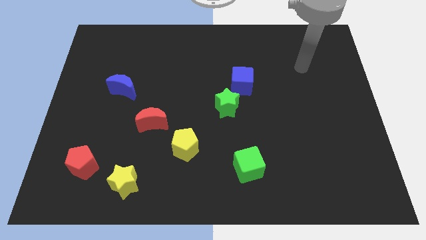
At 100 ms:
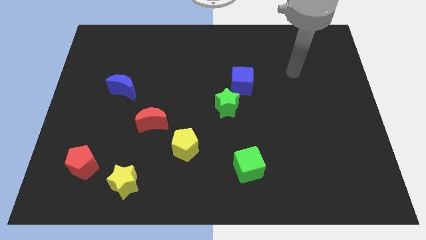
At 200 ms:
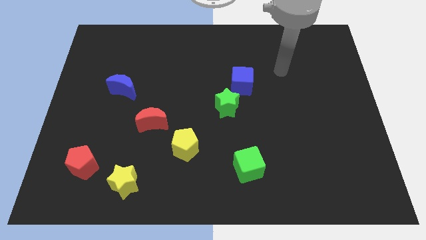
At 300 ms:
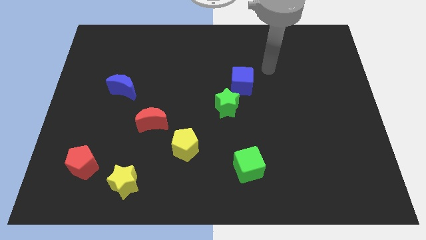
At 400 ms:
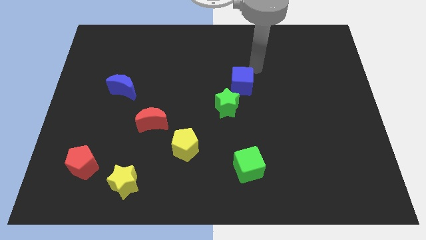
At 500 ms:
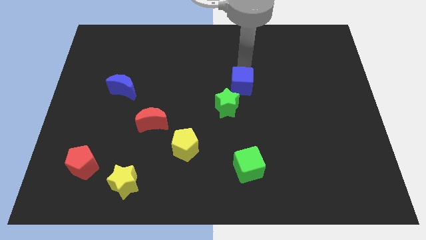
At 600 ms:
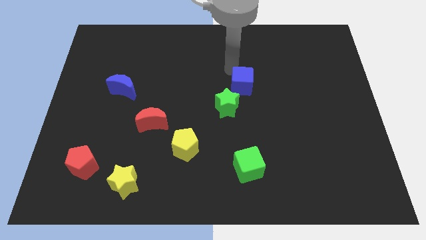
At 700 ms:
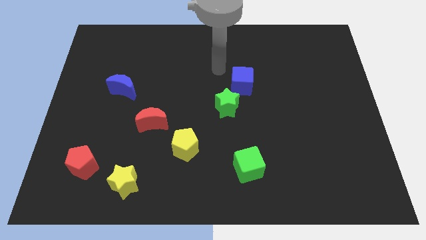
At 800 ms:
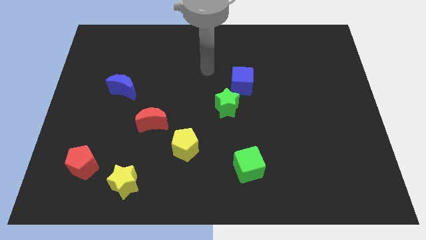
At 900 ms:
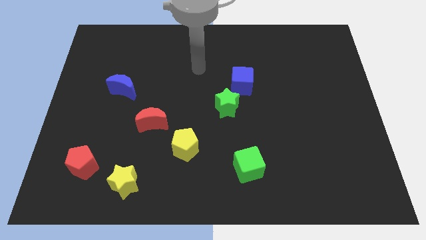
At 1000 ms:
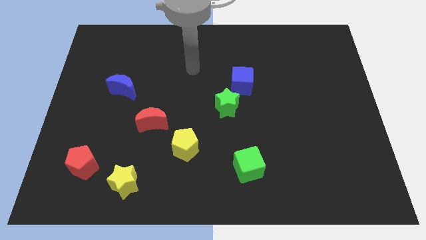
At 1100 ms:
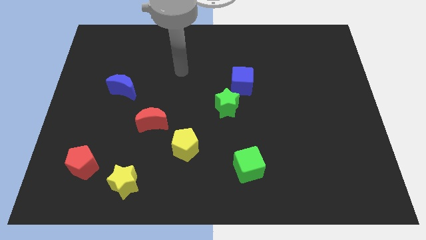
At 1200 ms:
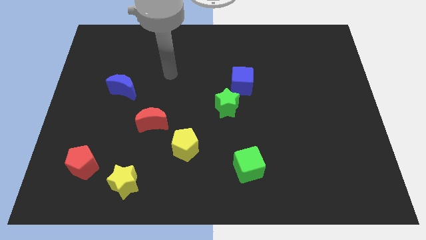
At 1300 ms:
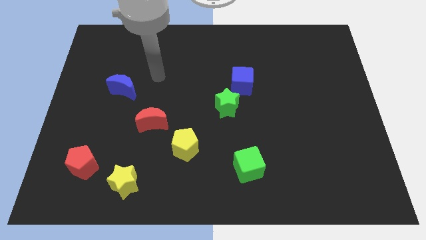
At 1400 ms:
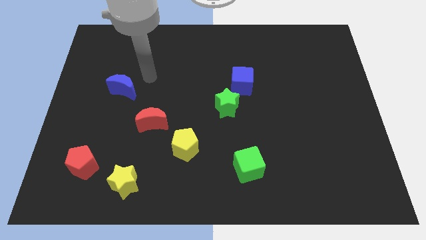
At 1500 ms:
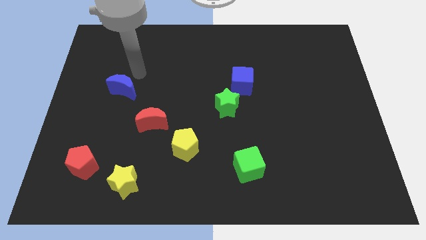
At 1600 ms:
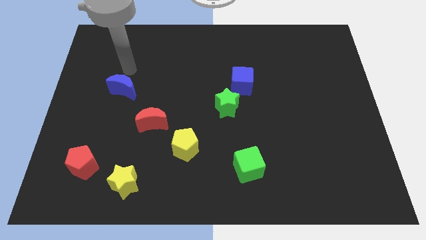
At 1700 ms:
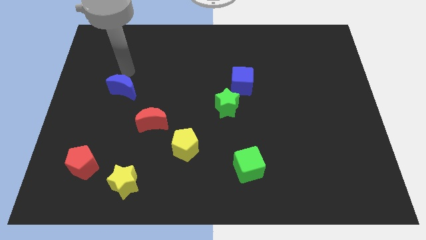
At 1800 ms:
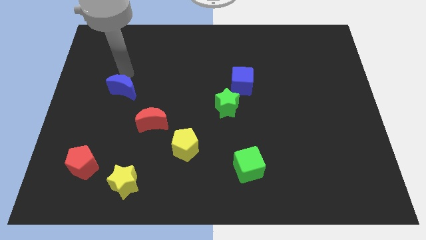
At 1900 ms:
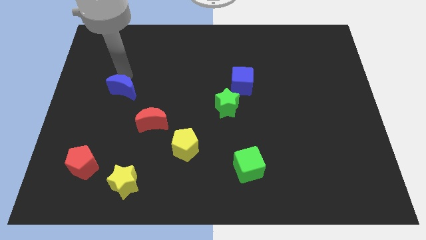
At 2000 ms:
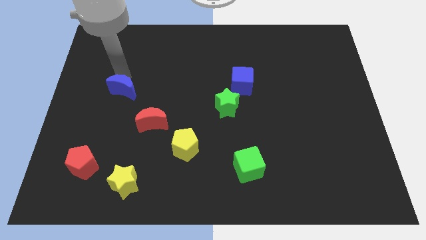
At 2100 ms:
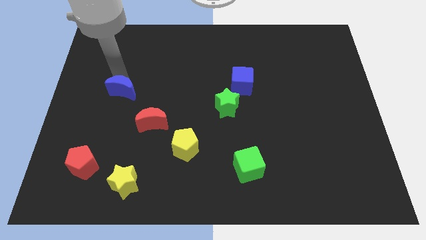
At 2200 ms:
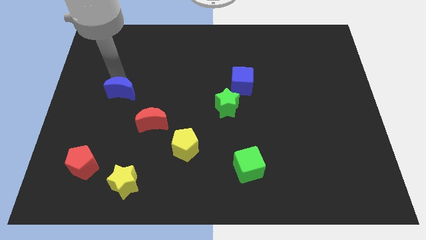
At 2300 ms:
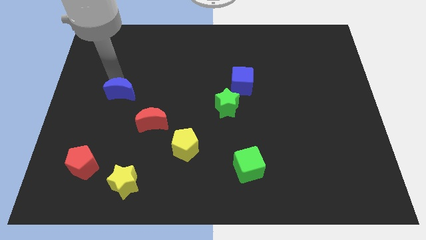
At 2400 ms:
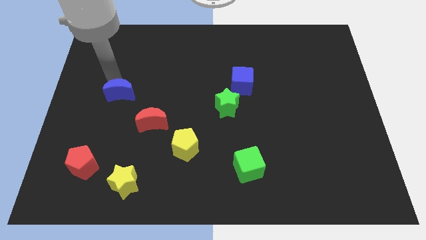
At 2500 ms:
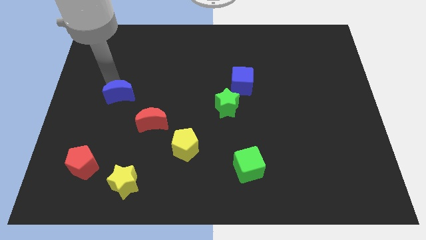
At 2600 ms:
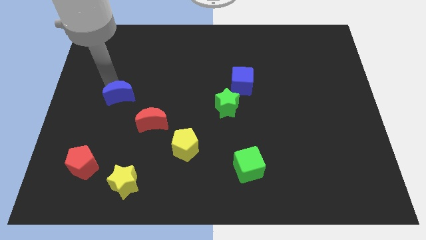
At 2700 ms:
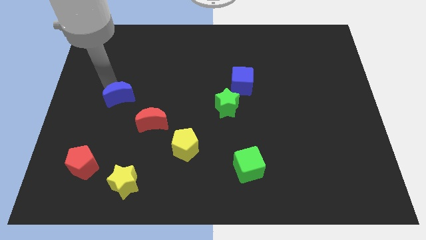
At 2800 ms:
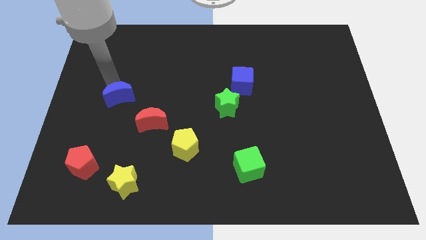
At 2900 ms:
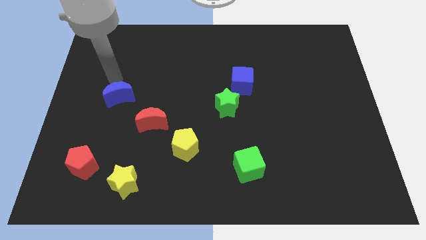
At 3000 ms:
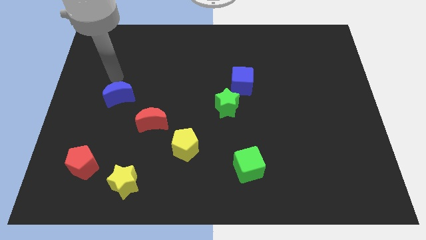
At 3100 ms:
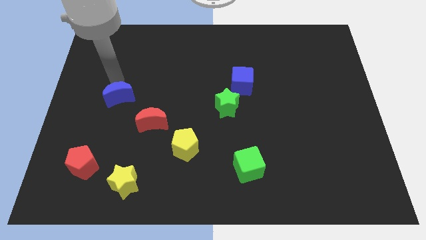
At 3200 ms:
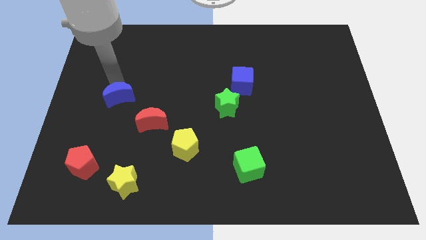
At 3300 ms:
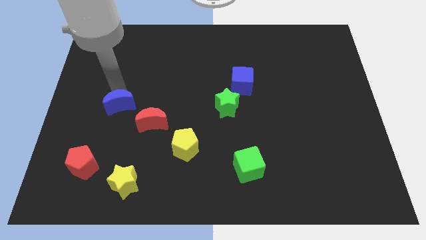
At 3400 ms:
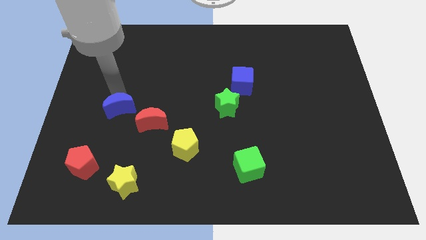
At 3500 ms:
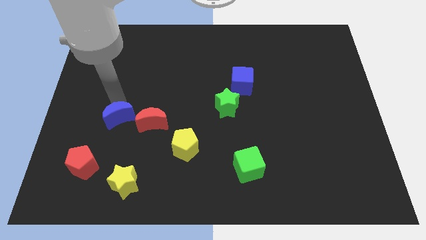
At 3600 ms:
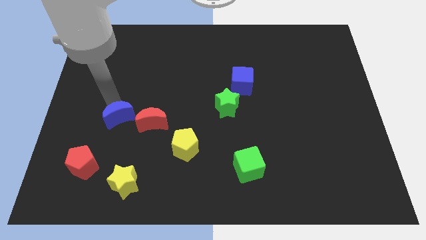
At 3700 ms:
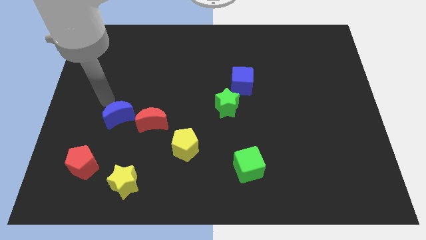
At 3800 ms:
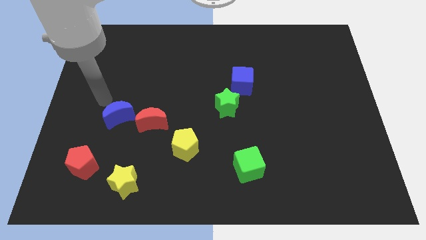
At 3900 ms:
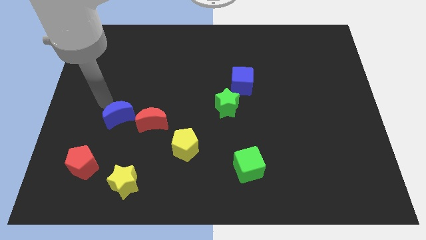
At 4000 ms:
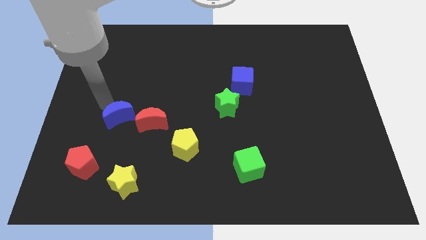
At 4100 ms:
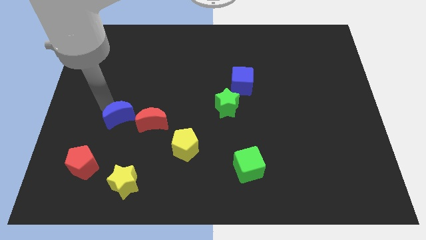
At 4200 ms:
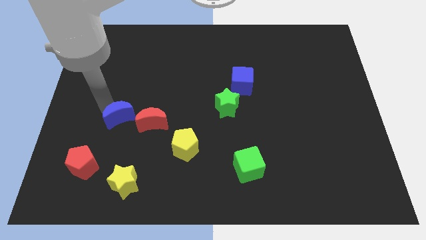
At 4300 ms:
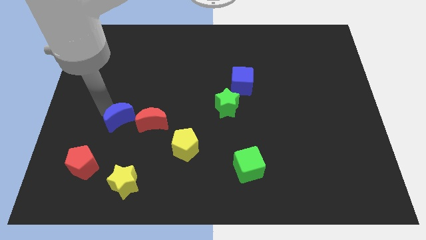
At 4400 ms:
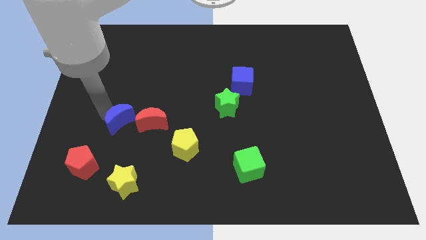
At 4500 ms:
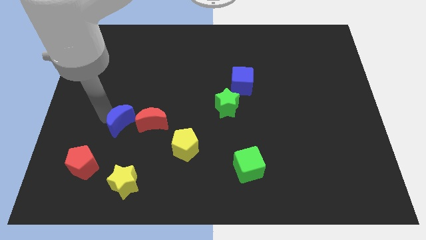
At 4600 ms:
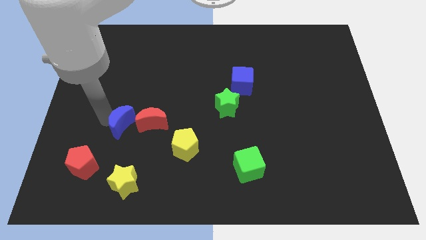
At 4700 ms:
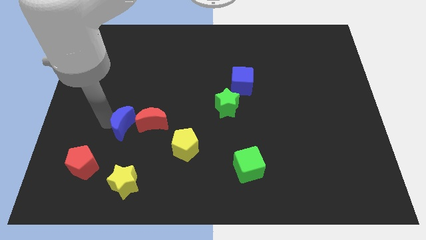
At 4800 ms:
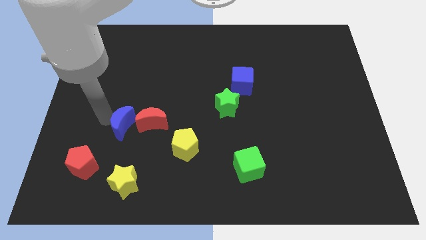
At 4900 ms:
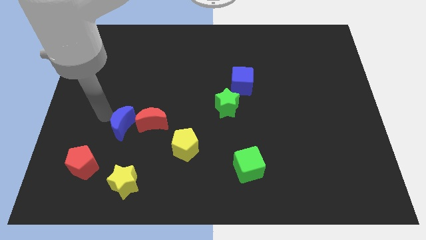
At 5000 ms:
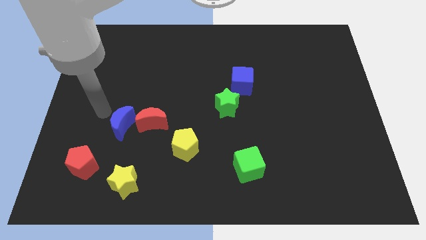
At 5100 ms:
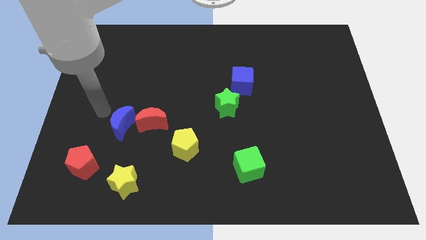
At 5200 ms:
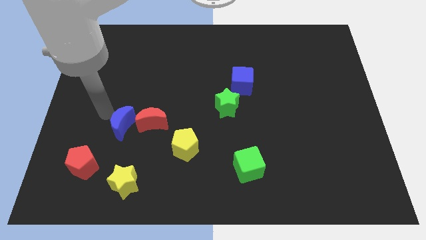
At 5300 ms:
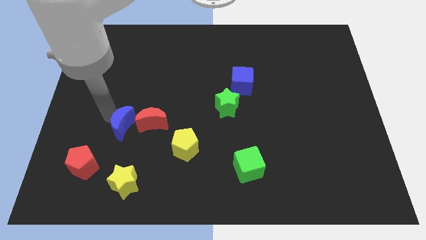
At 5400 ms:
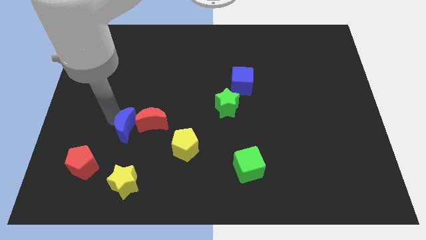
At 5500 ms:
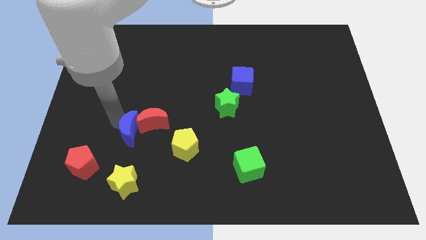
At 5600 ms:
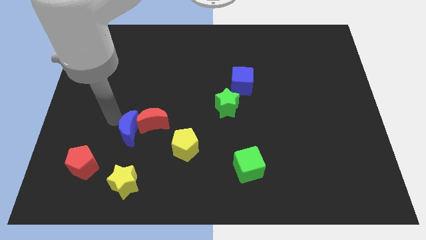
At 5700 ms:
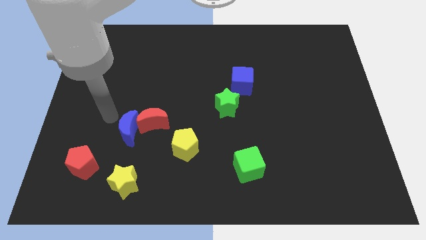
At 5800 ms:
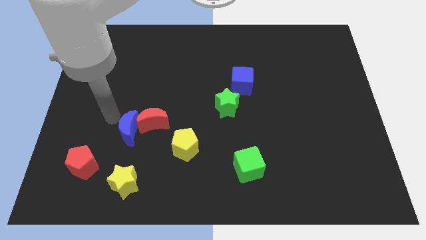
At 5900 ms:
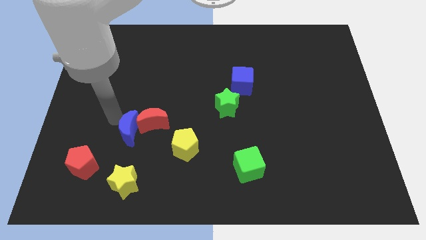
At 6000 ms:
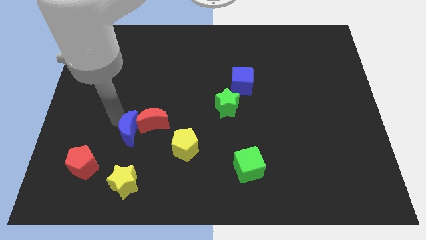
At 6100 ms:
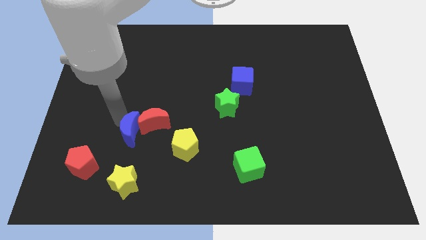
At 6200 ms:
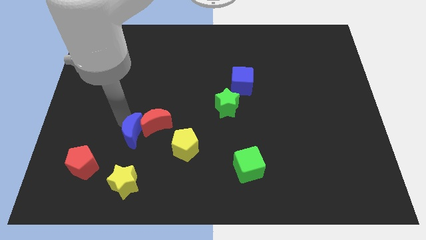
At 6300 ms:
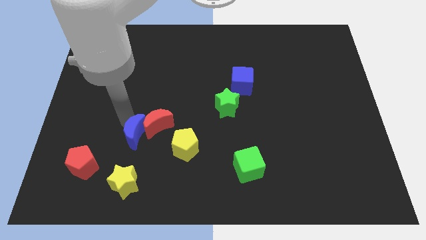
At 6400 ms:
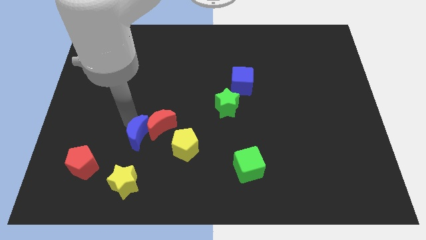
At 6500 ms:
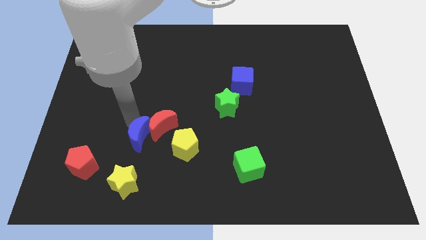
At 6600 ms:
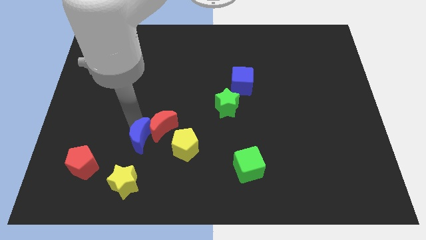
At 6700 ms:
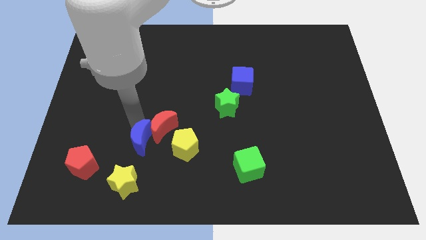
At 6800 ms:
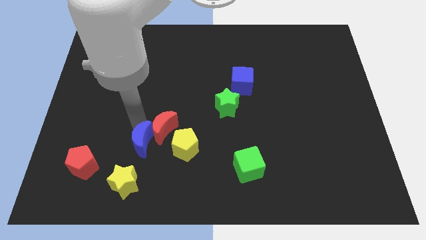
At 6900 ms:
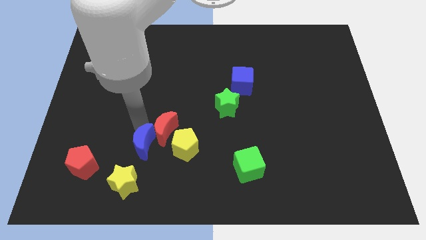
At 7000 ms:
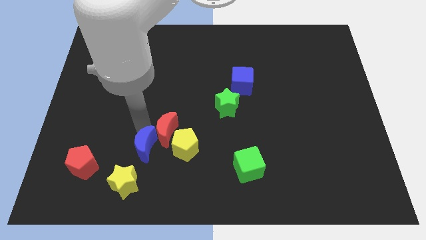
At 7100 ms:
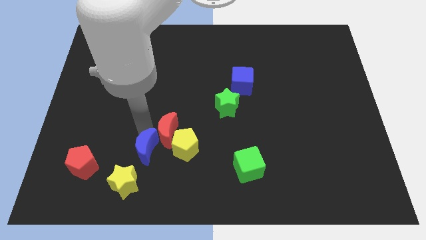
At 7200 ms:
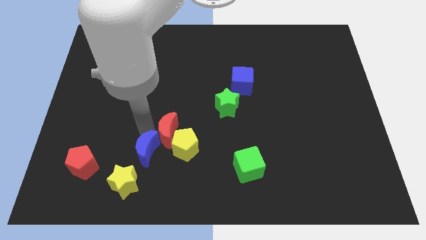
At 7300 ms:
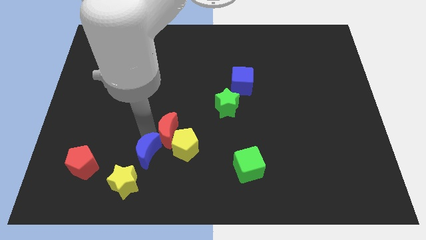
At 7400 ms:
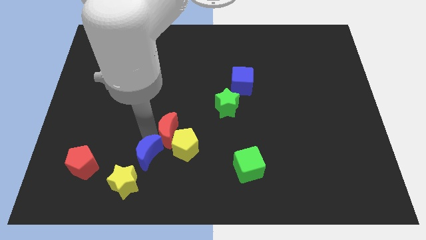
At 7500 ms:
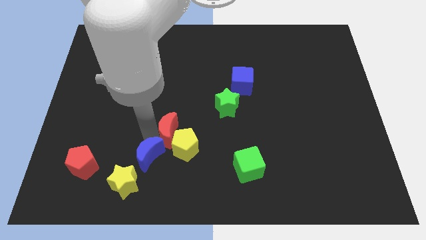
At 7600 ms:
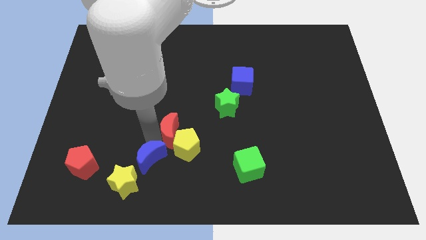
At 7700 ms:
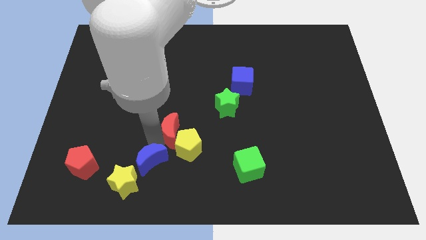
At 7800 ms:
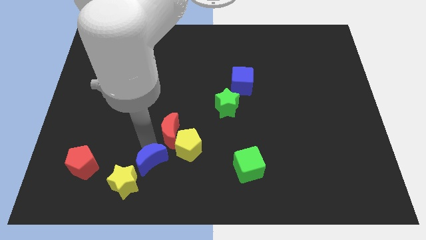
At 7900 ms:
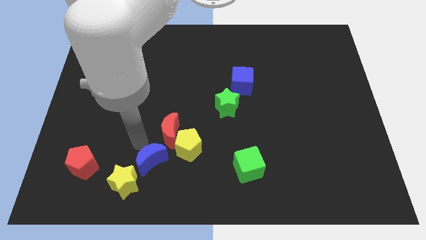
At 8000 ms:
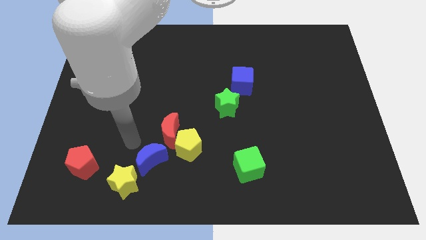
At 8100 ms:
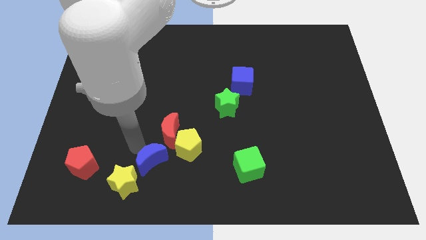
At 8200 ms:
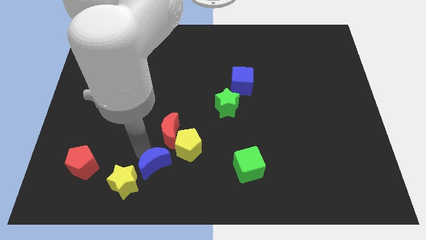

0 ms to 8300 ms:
slide the blue moon to the right side of the yellow star
